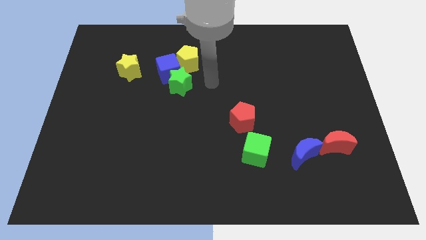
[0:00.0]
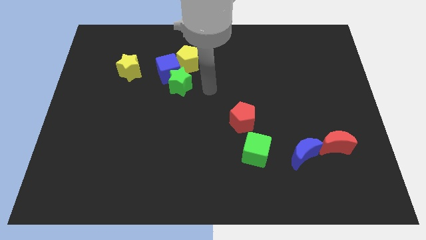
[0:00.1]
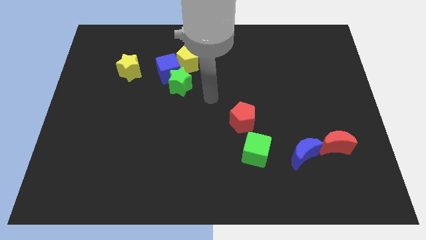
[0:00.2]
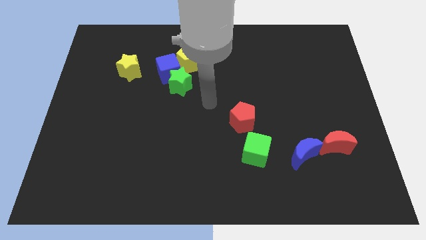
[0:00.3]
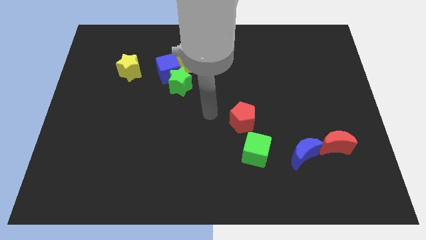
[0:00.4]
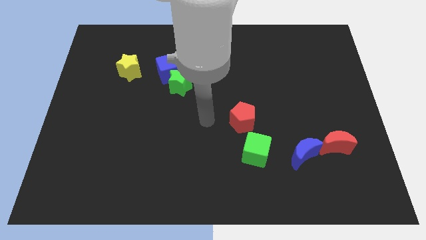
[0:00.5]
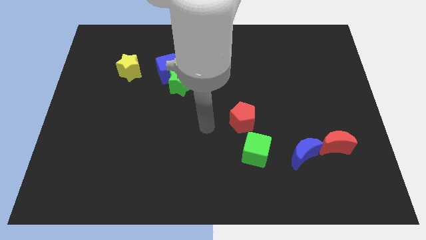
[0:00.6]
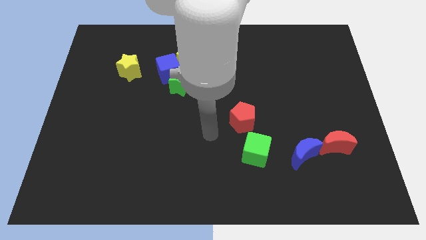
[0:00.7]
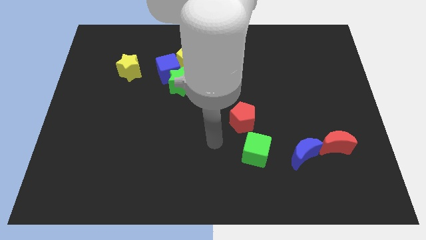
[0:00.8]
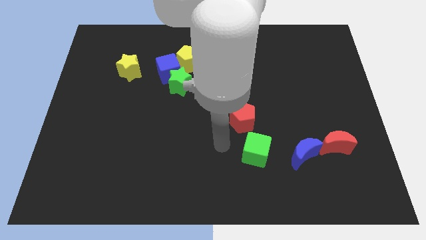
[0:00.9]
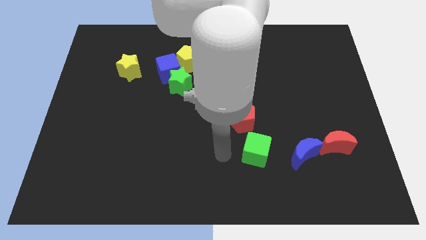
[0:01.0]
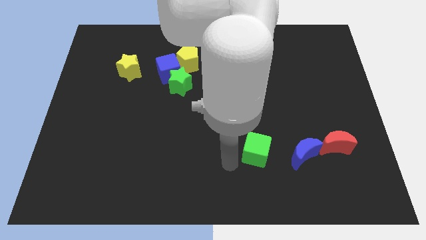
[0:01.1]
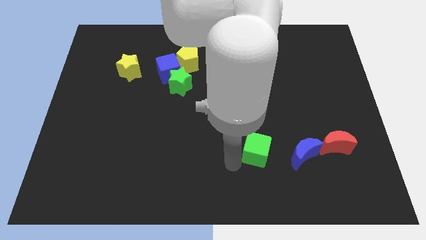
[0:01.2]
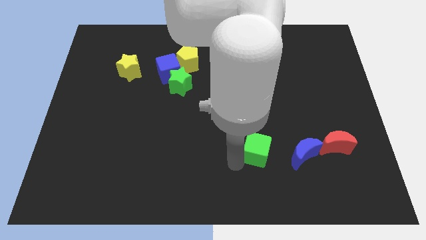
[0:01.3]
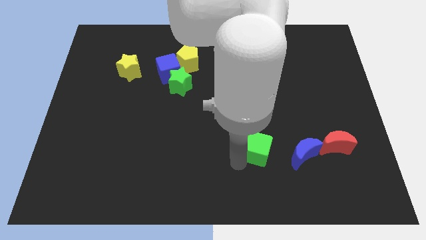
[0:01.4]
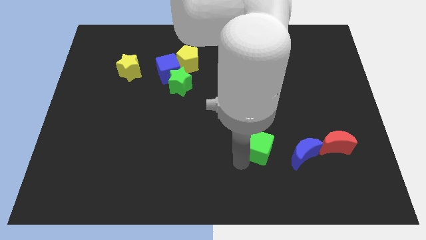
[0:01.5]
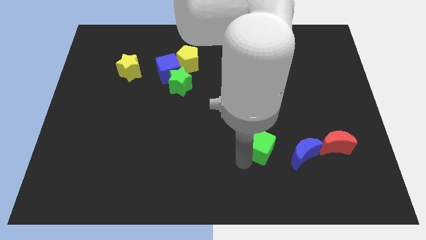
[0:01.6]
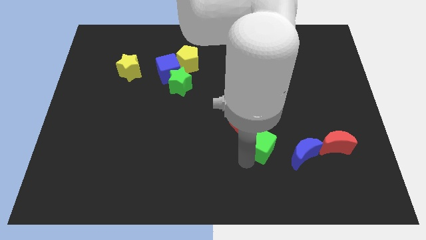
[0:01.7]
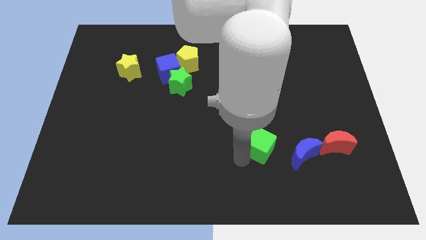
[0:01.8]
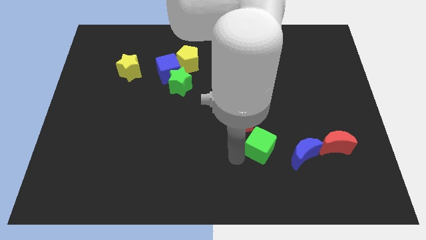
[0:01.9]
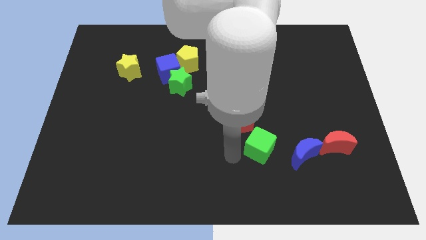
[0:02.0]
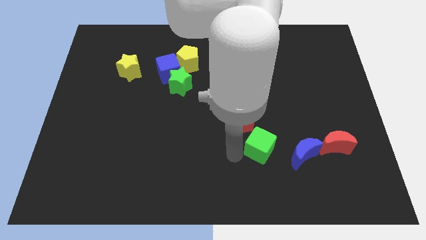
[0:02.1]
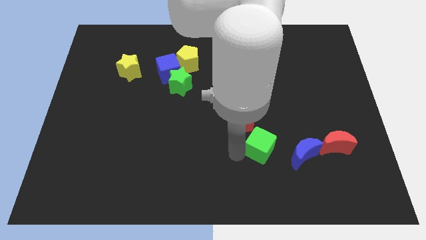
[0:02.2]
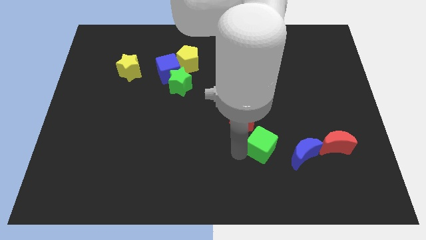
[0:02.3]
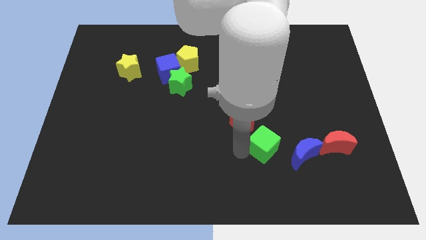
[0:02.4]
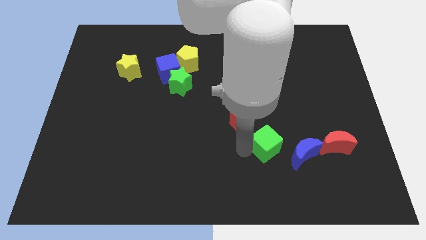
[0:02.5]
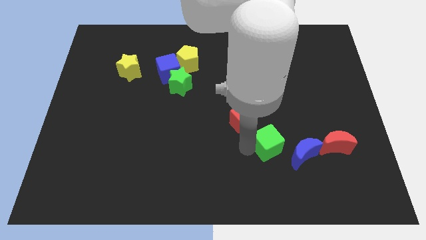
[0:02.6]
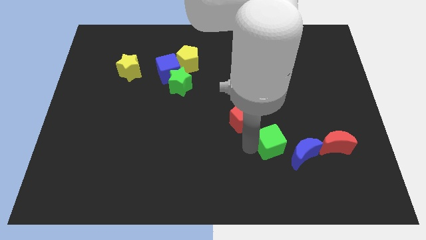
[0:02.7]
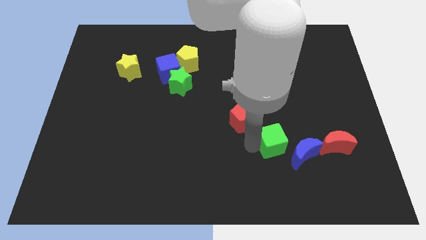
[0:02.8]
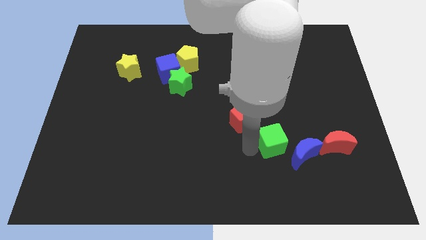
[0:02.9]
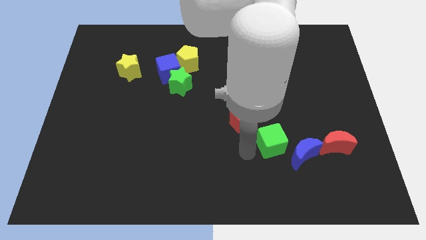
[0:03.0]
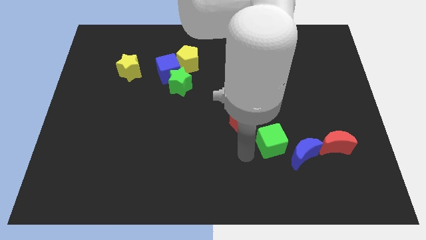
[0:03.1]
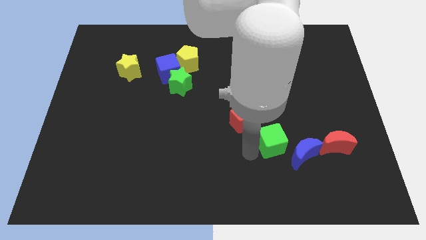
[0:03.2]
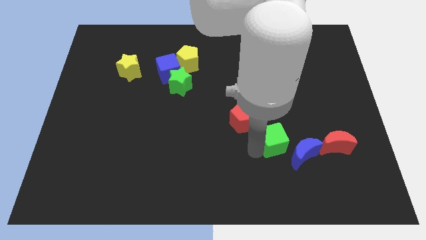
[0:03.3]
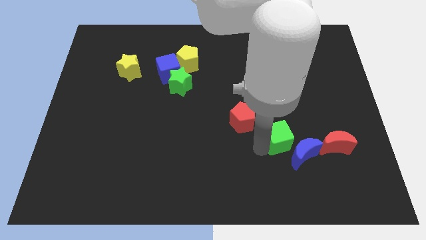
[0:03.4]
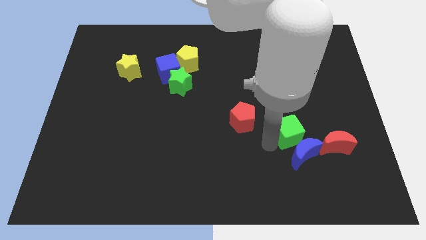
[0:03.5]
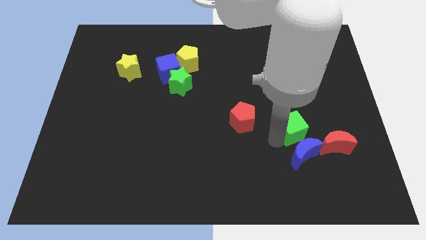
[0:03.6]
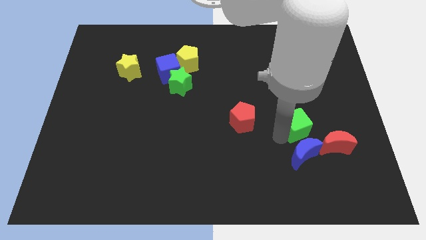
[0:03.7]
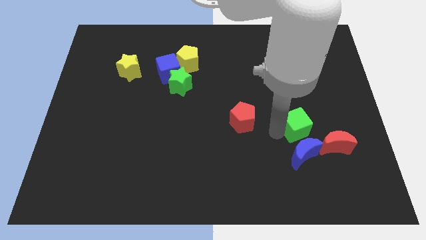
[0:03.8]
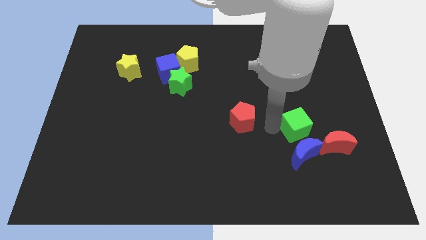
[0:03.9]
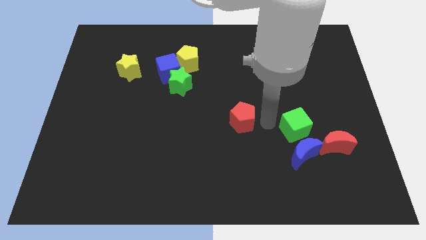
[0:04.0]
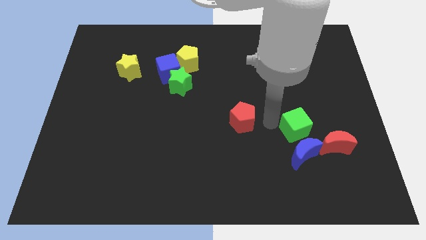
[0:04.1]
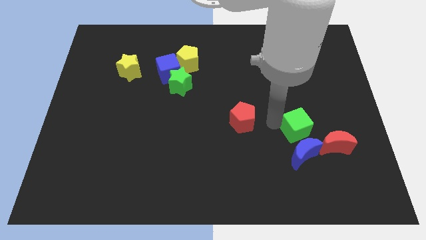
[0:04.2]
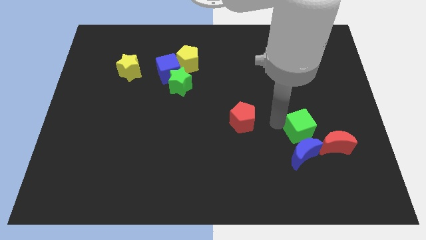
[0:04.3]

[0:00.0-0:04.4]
slide the green cube to the top right of the blue moon

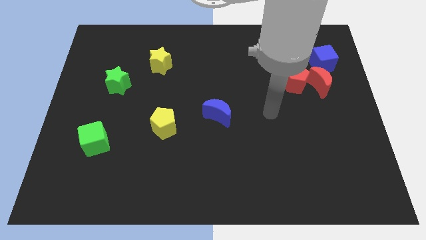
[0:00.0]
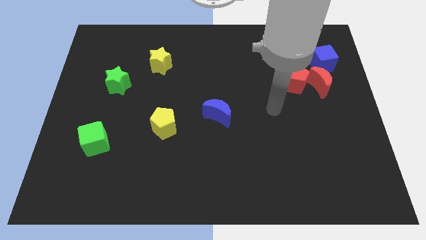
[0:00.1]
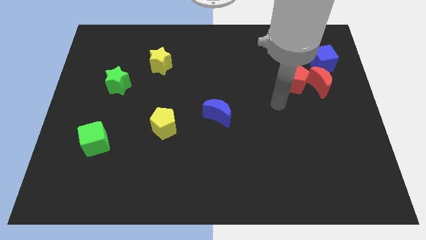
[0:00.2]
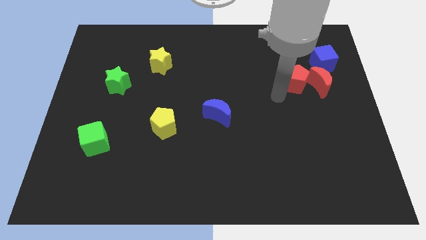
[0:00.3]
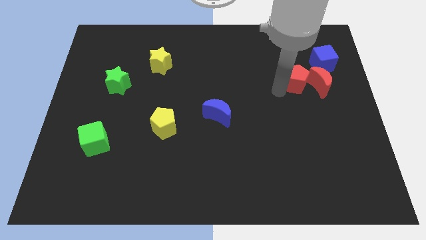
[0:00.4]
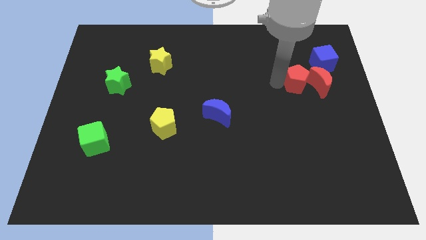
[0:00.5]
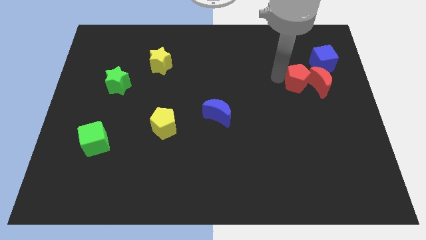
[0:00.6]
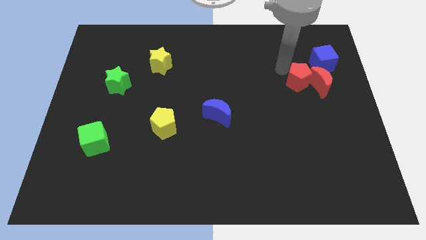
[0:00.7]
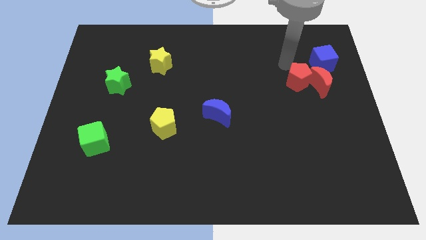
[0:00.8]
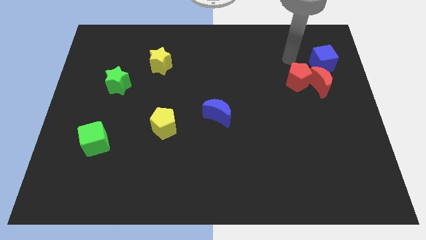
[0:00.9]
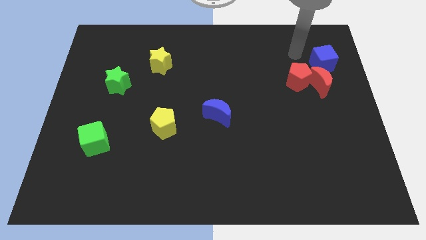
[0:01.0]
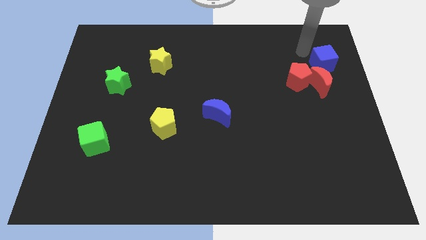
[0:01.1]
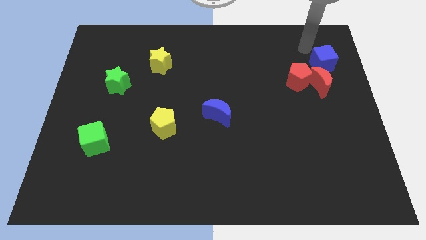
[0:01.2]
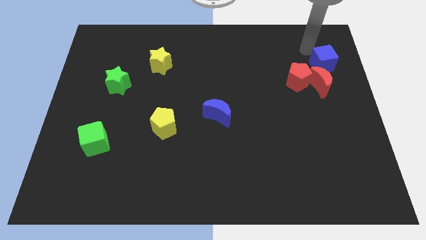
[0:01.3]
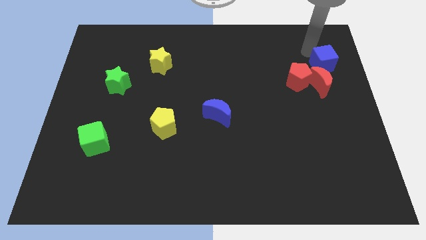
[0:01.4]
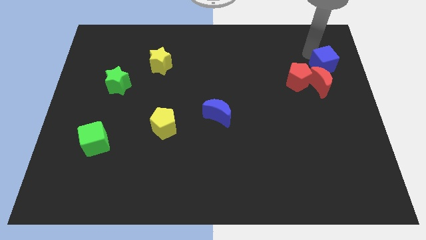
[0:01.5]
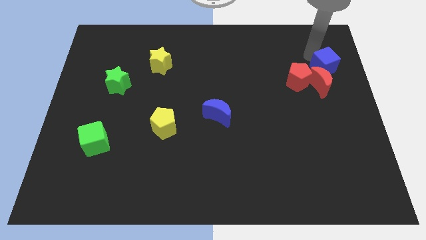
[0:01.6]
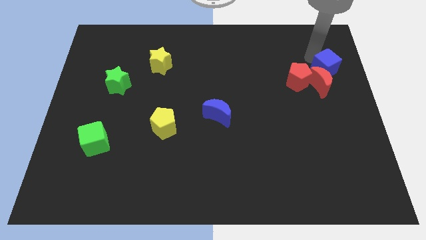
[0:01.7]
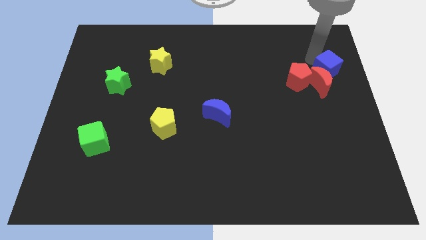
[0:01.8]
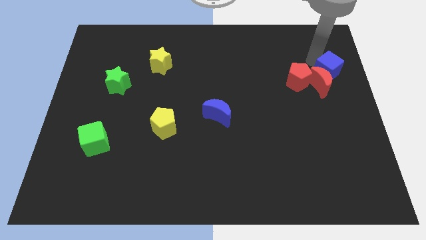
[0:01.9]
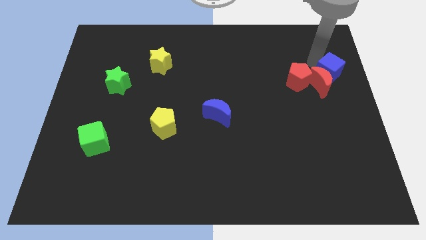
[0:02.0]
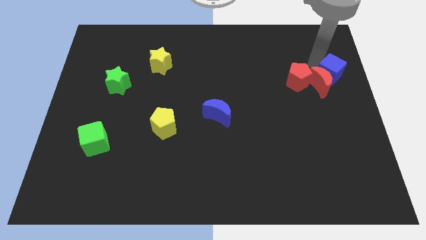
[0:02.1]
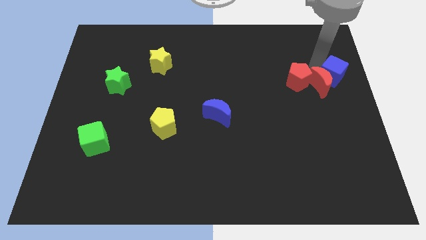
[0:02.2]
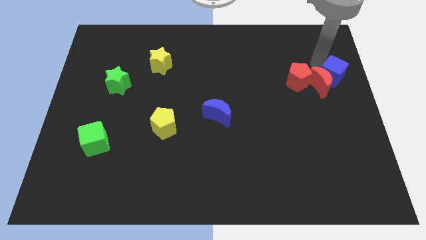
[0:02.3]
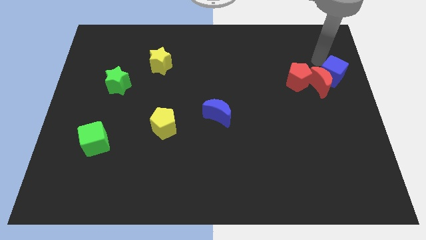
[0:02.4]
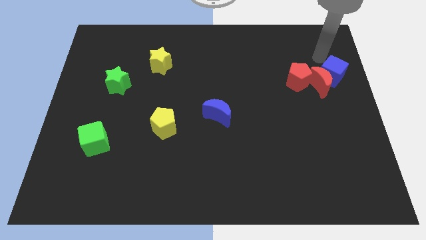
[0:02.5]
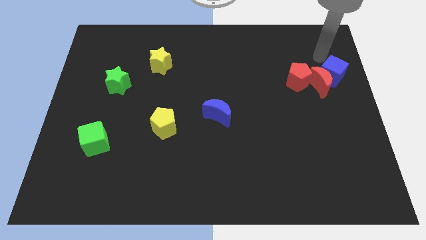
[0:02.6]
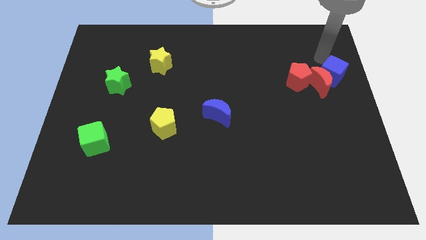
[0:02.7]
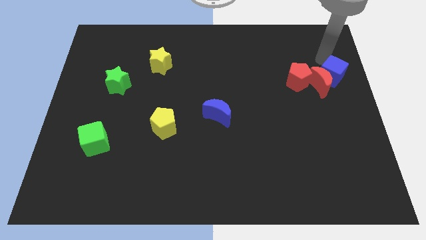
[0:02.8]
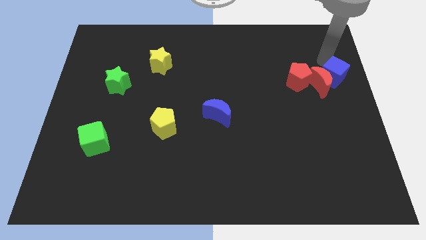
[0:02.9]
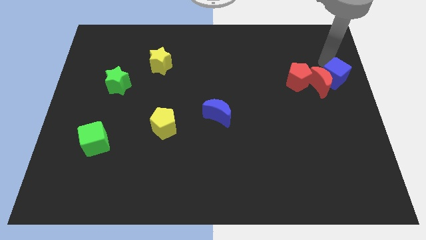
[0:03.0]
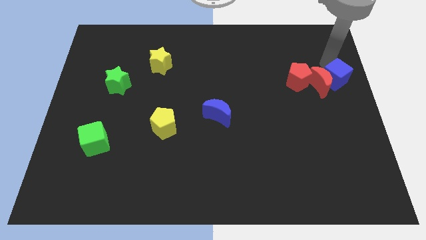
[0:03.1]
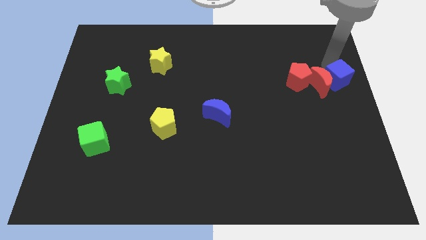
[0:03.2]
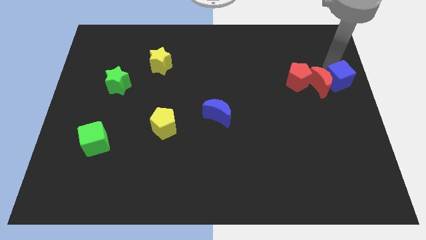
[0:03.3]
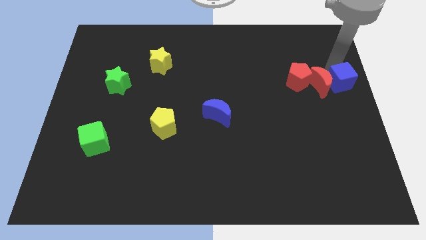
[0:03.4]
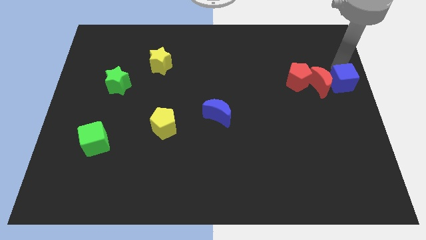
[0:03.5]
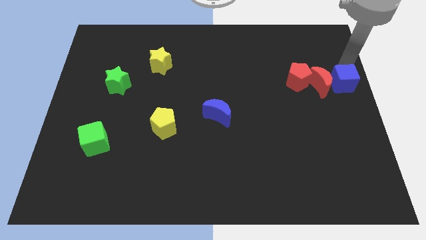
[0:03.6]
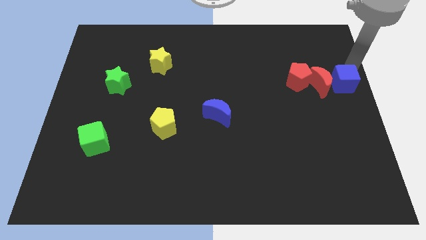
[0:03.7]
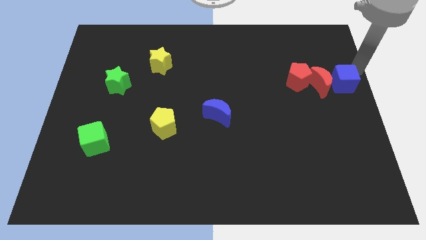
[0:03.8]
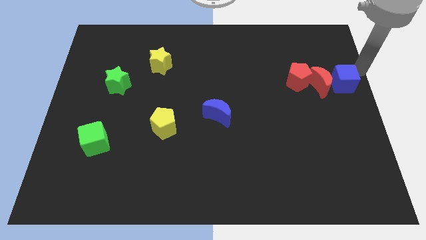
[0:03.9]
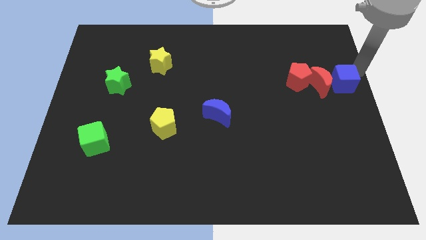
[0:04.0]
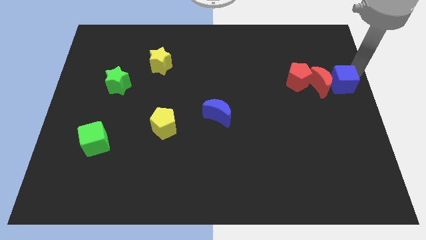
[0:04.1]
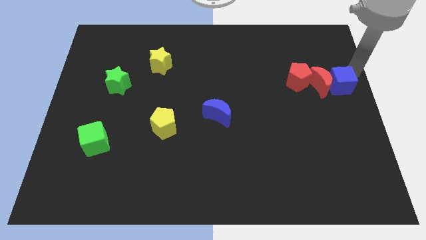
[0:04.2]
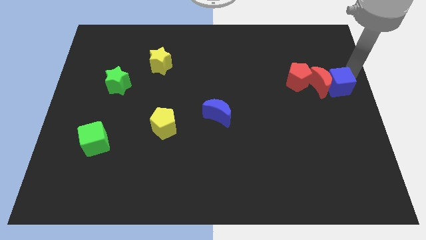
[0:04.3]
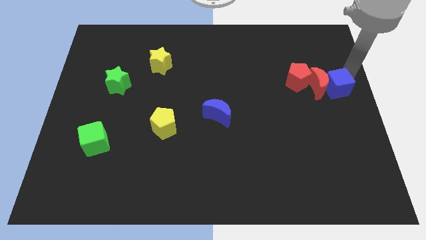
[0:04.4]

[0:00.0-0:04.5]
put the blue cube to the bottom right of the red pentagon
